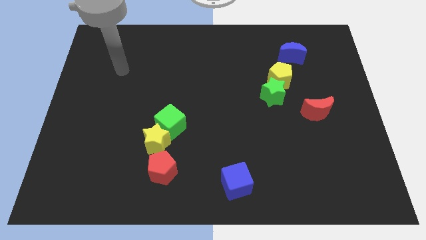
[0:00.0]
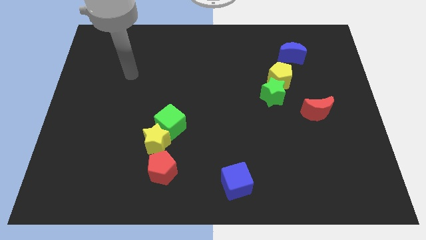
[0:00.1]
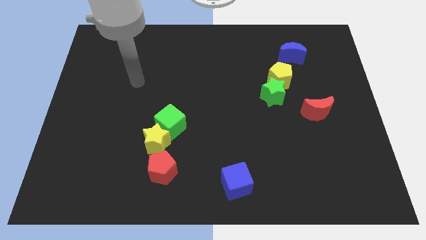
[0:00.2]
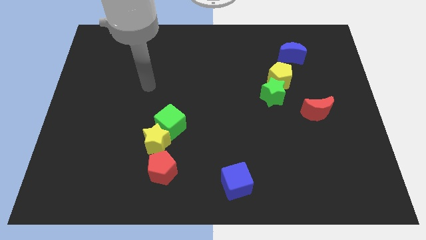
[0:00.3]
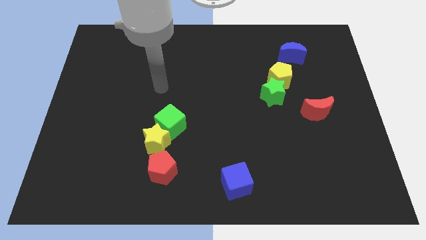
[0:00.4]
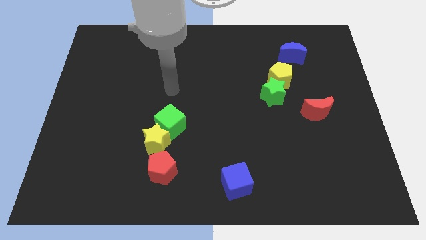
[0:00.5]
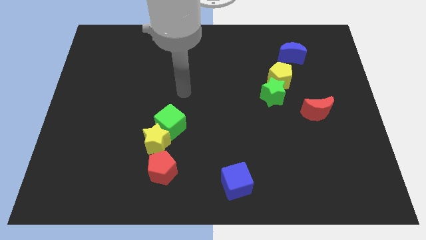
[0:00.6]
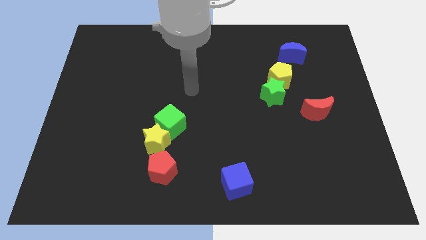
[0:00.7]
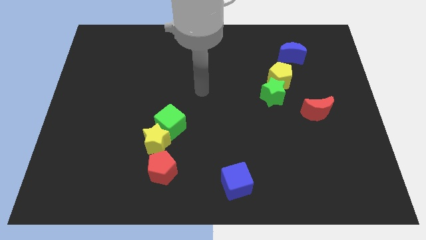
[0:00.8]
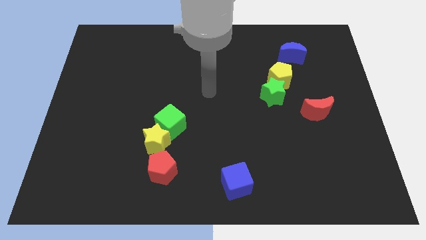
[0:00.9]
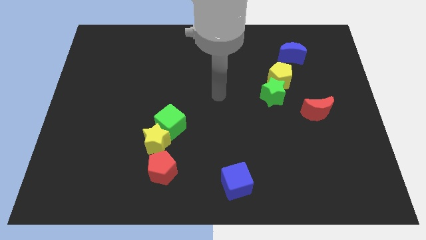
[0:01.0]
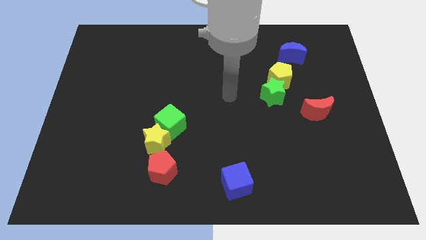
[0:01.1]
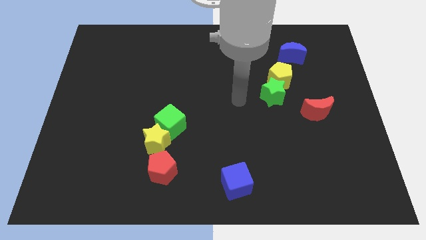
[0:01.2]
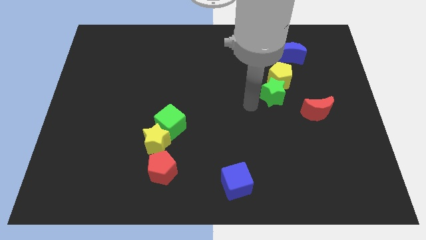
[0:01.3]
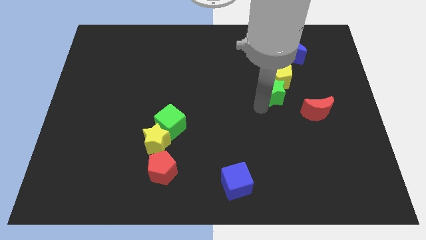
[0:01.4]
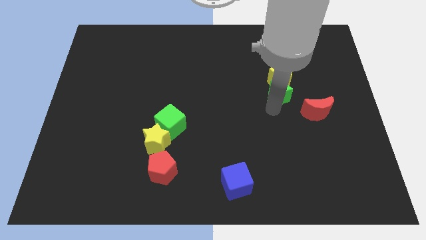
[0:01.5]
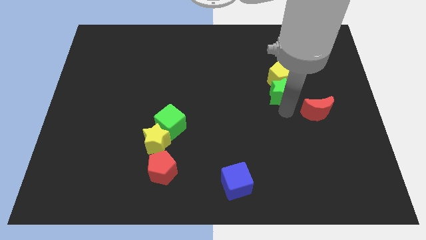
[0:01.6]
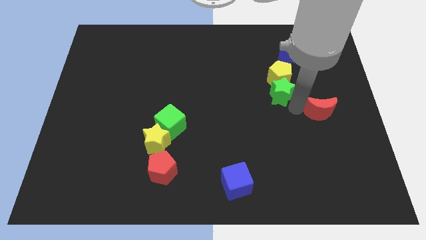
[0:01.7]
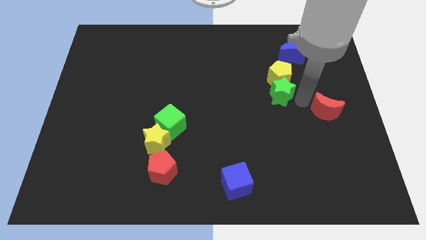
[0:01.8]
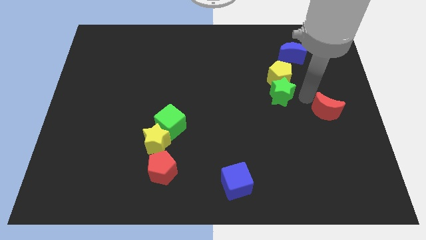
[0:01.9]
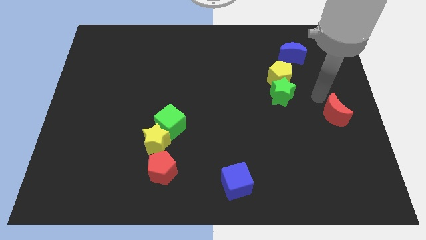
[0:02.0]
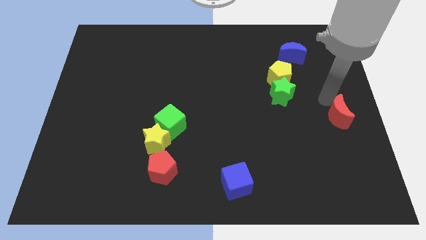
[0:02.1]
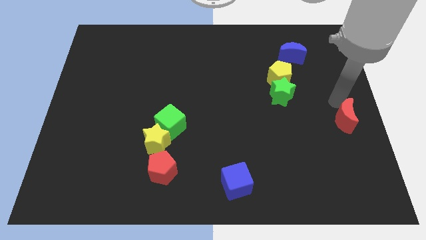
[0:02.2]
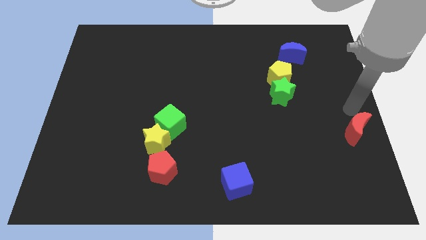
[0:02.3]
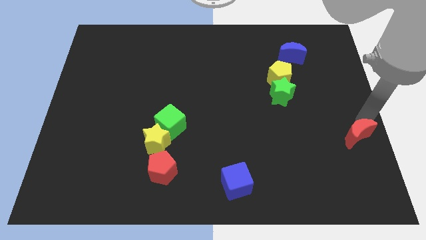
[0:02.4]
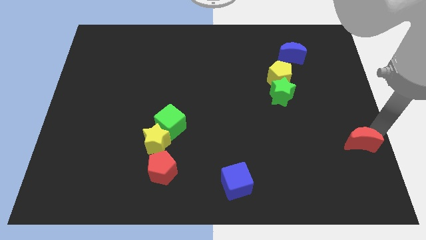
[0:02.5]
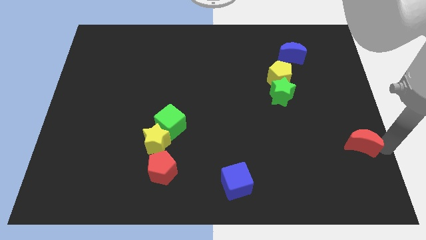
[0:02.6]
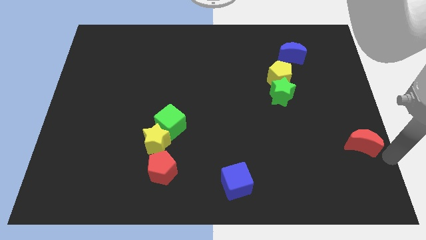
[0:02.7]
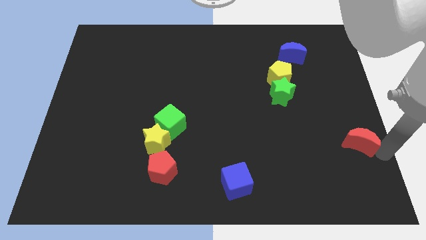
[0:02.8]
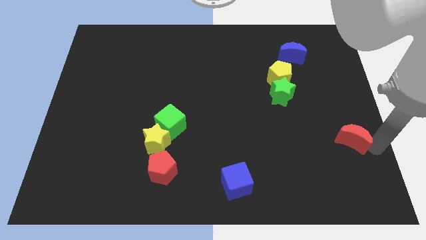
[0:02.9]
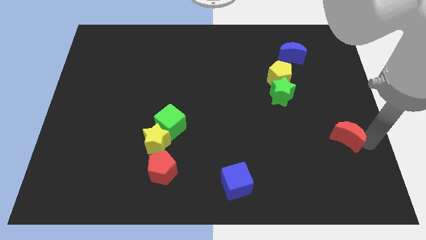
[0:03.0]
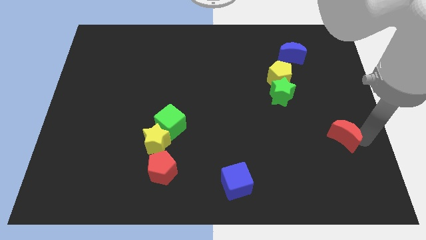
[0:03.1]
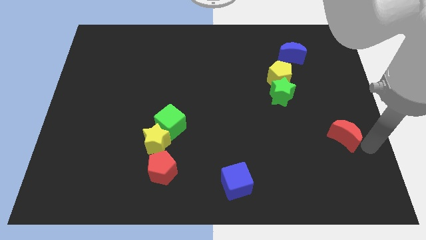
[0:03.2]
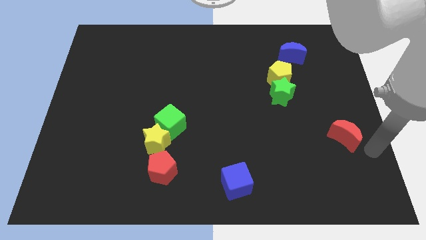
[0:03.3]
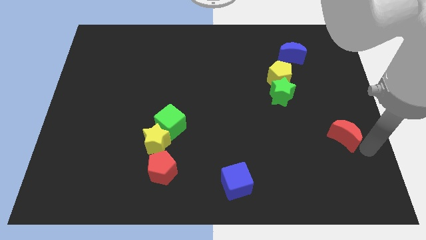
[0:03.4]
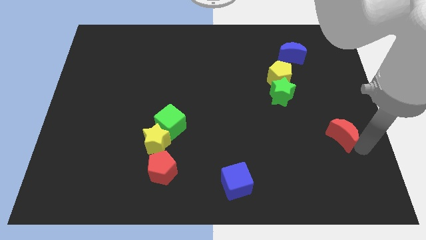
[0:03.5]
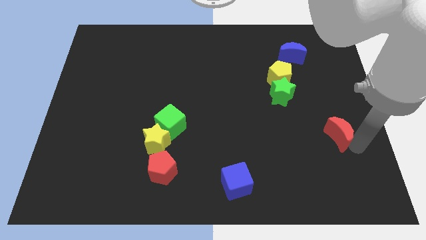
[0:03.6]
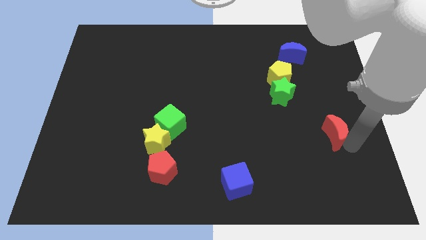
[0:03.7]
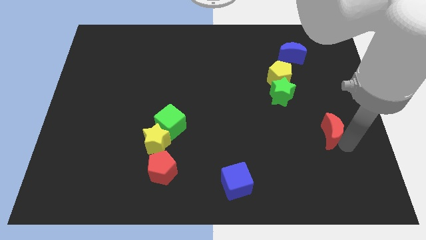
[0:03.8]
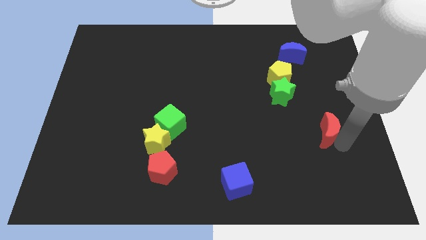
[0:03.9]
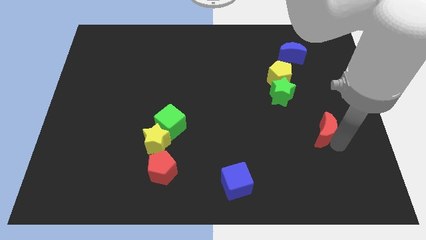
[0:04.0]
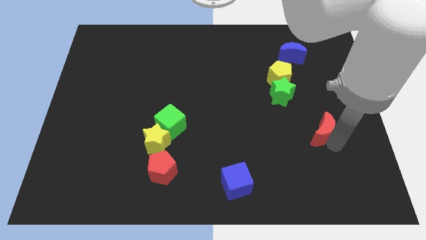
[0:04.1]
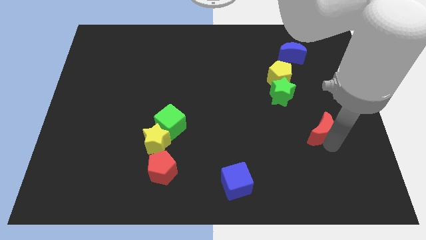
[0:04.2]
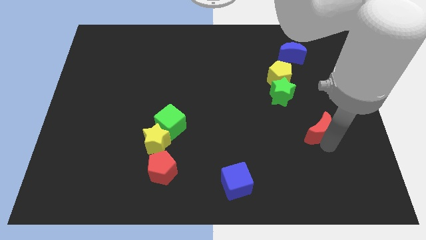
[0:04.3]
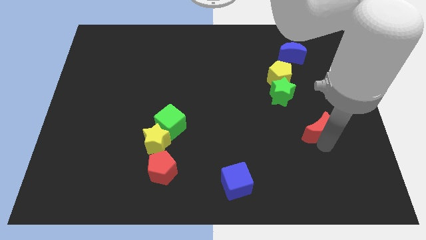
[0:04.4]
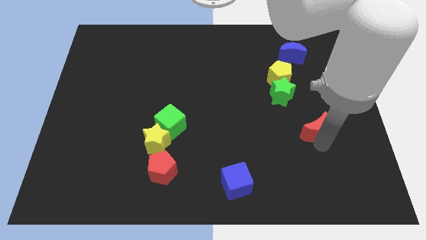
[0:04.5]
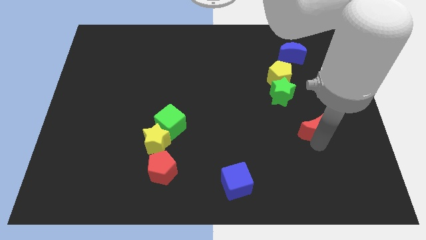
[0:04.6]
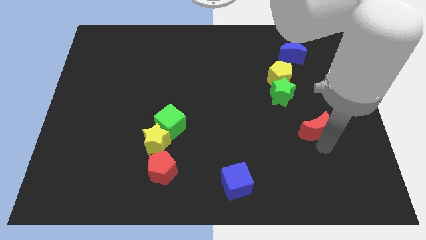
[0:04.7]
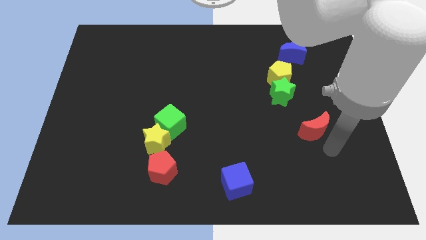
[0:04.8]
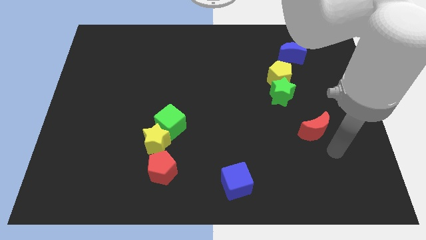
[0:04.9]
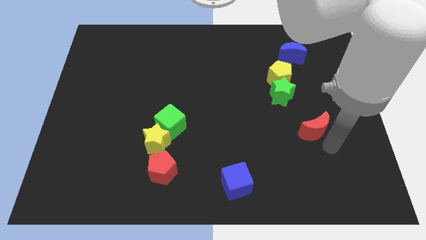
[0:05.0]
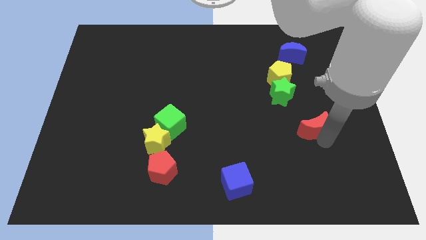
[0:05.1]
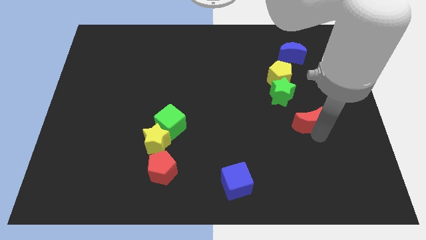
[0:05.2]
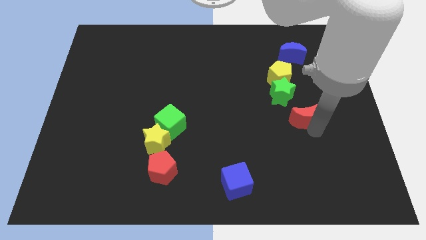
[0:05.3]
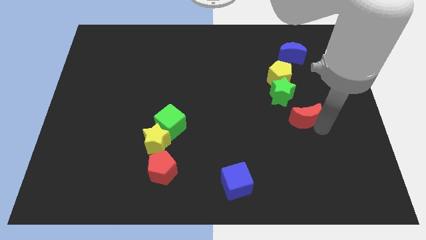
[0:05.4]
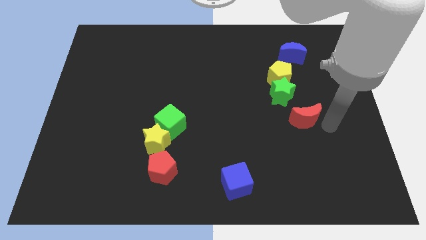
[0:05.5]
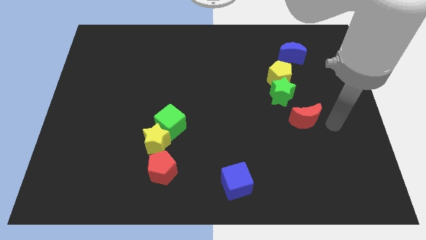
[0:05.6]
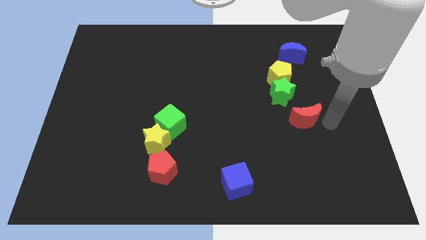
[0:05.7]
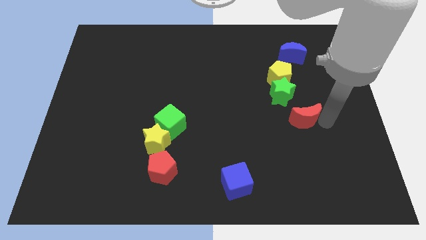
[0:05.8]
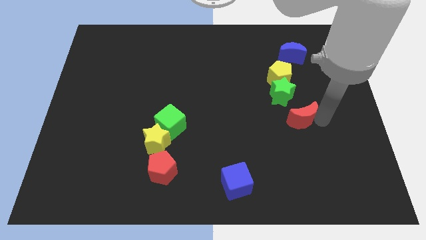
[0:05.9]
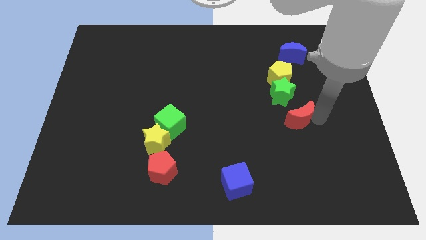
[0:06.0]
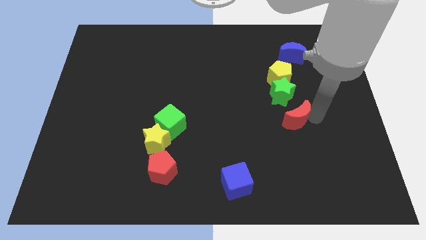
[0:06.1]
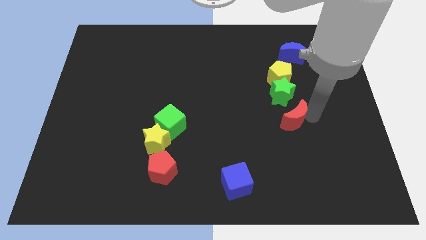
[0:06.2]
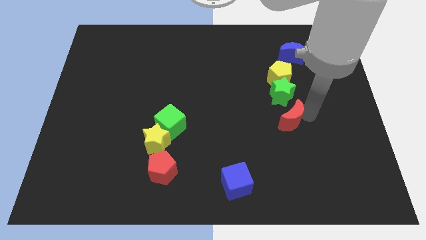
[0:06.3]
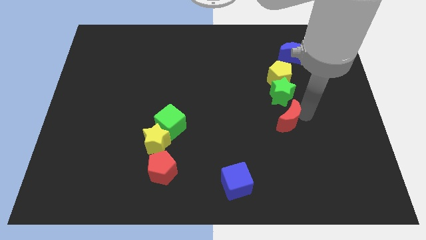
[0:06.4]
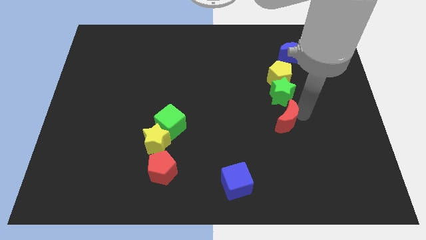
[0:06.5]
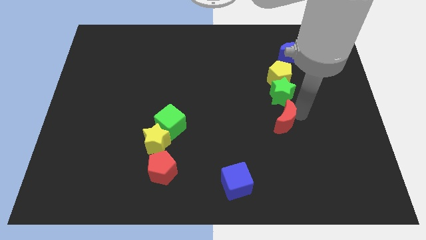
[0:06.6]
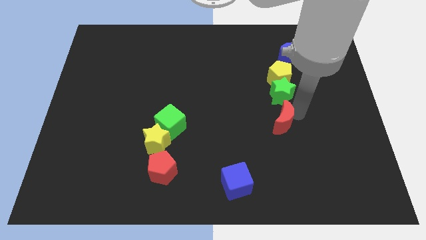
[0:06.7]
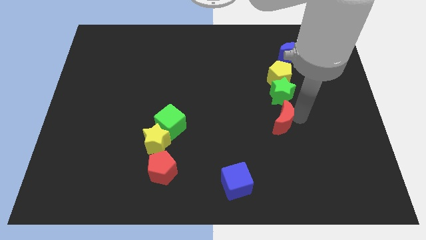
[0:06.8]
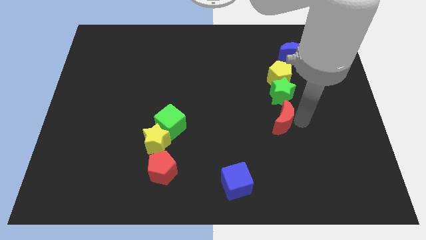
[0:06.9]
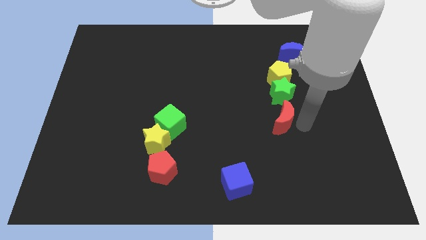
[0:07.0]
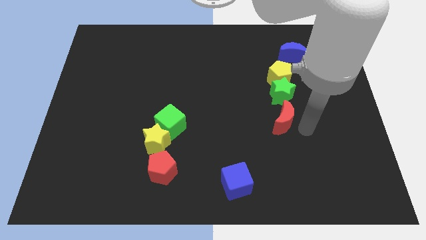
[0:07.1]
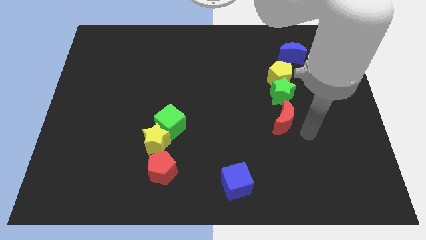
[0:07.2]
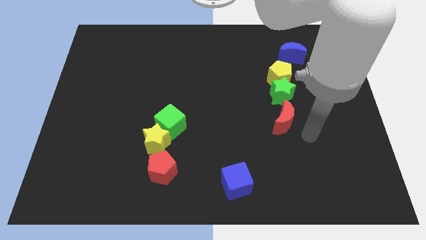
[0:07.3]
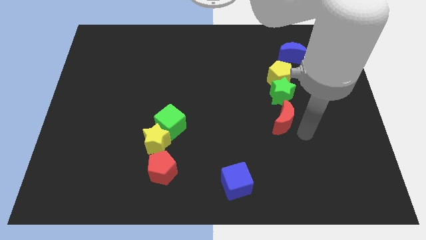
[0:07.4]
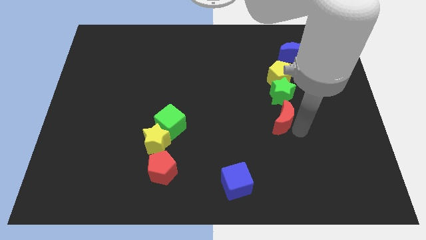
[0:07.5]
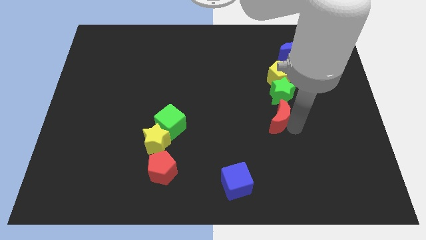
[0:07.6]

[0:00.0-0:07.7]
move the red moon to the bottom left side of the green star

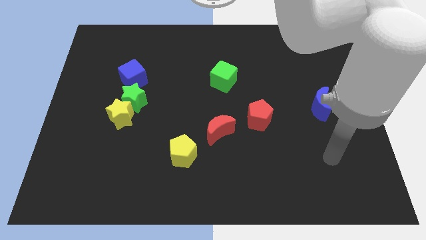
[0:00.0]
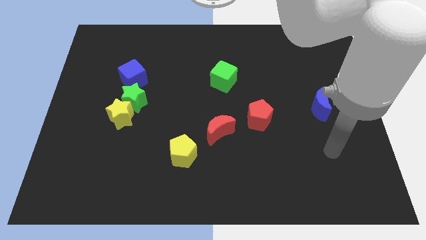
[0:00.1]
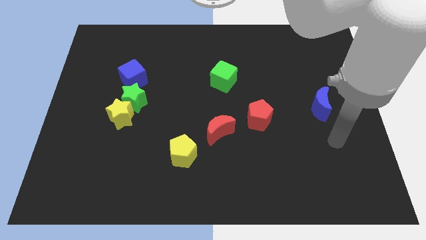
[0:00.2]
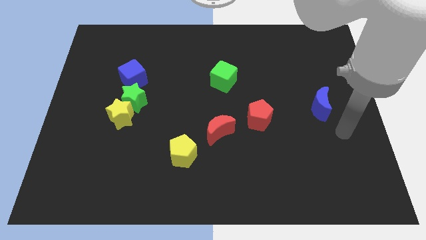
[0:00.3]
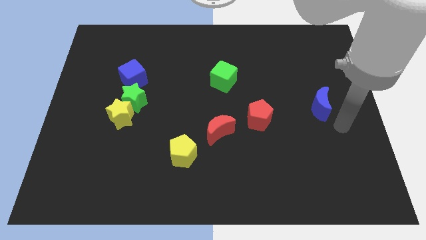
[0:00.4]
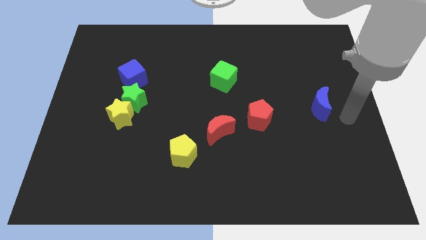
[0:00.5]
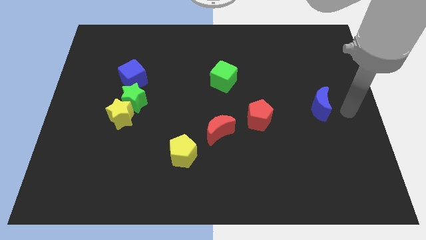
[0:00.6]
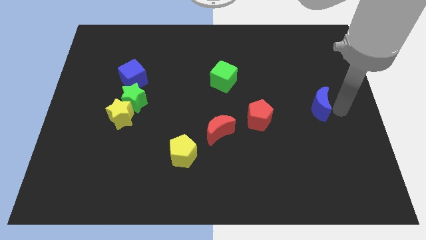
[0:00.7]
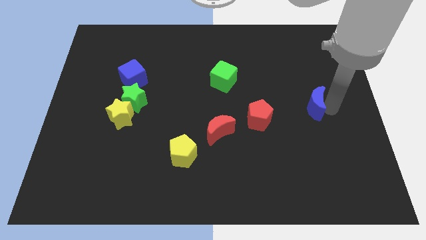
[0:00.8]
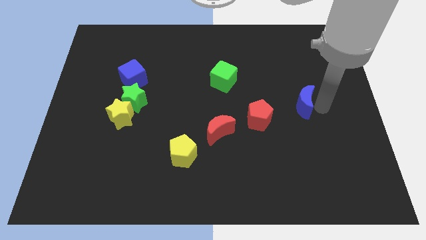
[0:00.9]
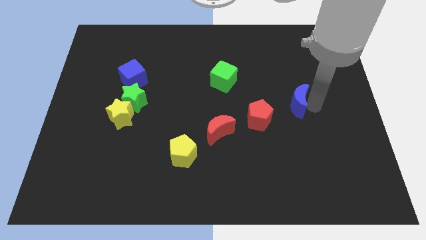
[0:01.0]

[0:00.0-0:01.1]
push the blue moon diagonally up and to the right of the red pentagon
